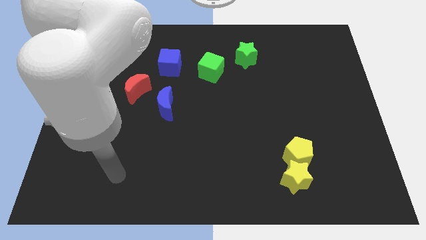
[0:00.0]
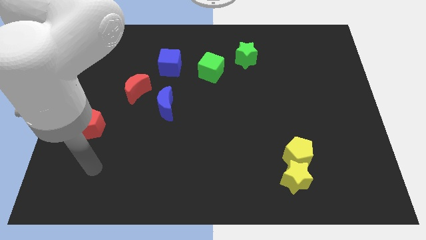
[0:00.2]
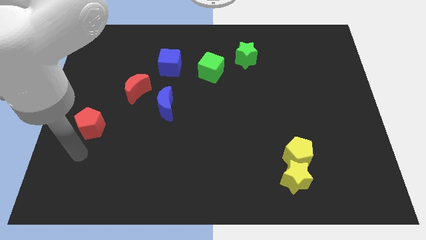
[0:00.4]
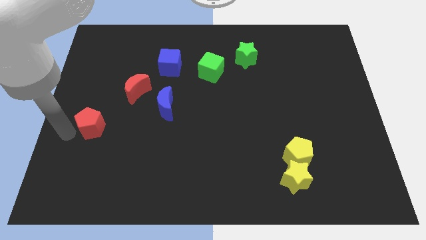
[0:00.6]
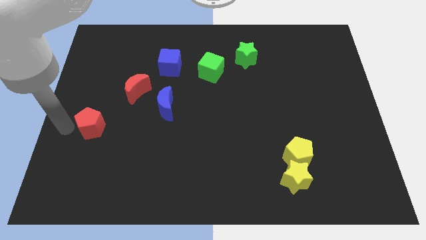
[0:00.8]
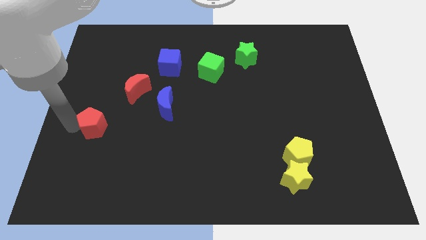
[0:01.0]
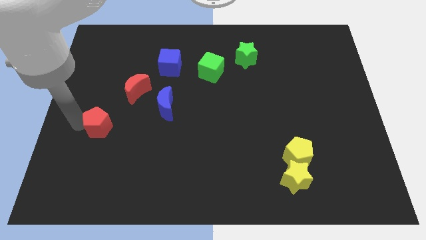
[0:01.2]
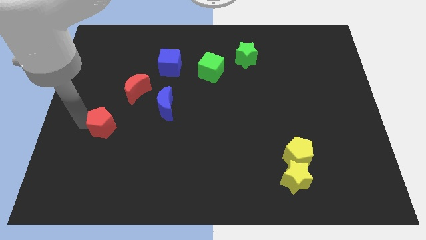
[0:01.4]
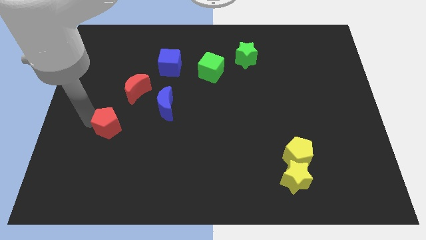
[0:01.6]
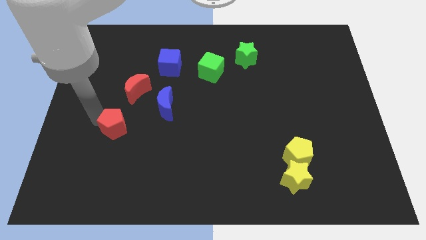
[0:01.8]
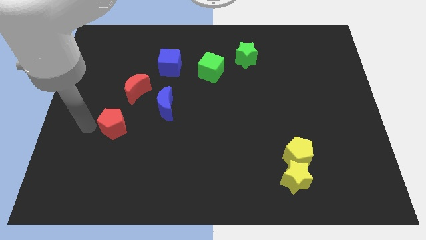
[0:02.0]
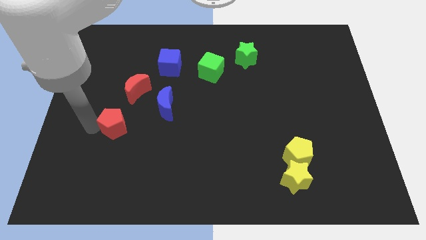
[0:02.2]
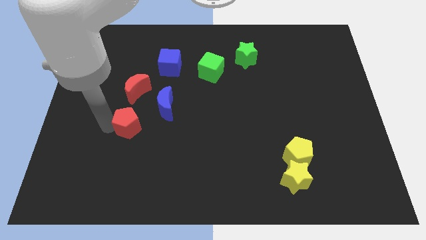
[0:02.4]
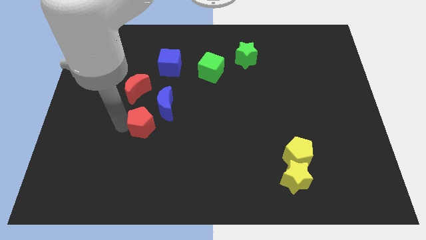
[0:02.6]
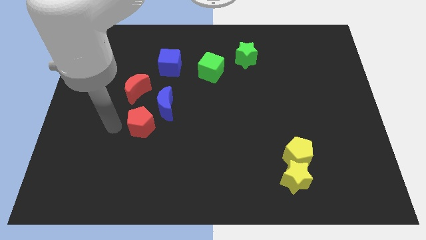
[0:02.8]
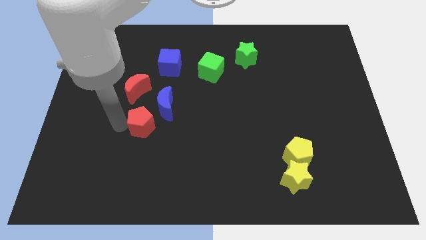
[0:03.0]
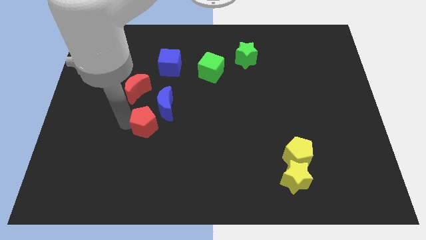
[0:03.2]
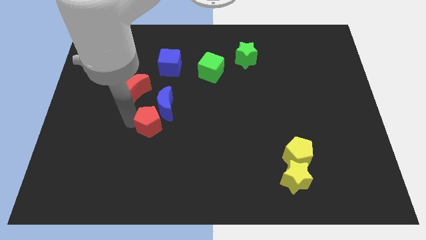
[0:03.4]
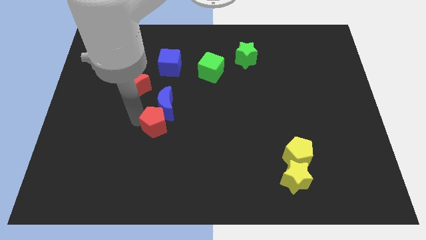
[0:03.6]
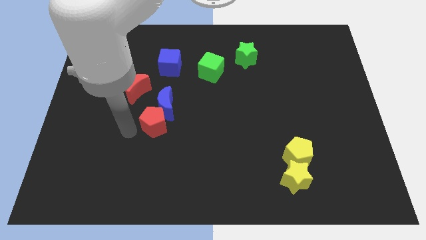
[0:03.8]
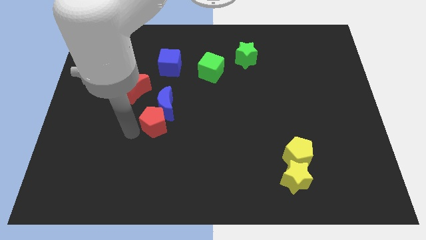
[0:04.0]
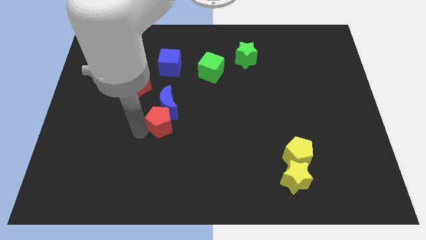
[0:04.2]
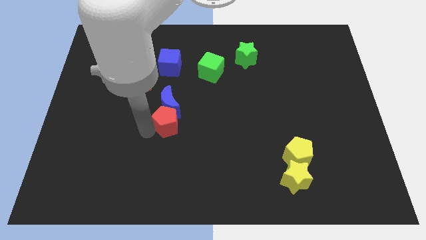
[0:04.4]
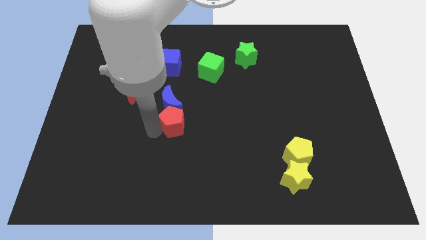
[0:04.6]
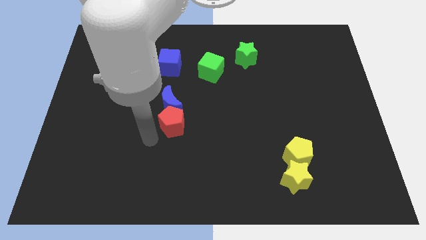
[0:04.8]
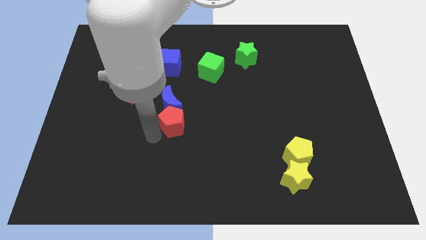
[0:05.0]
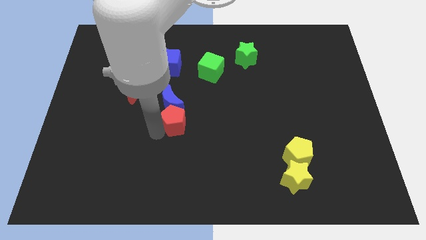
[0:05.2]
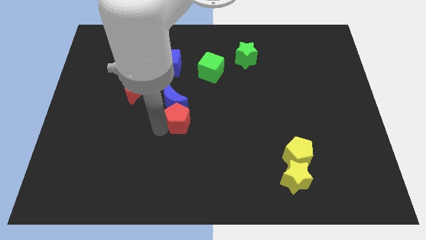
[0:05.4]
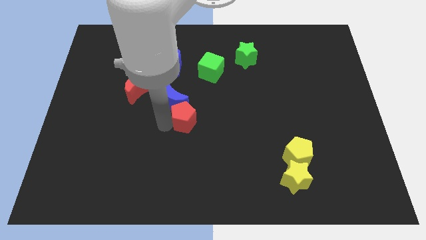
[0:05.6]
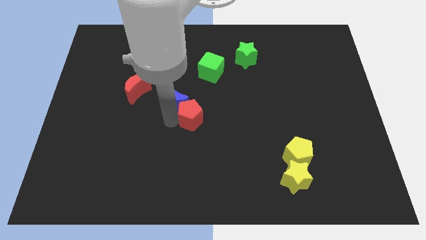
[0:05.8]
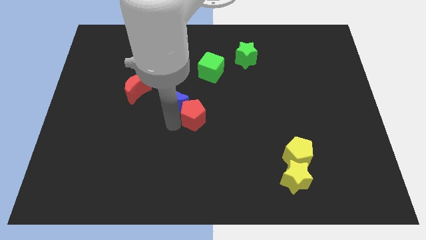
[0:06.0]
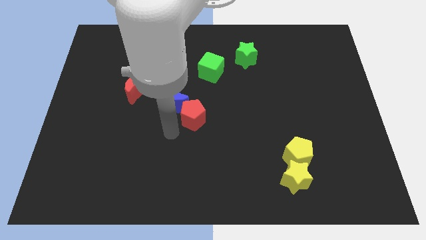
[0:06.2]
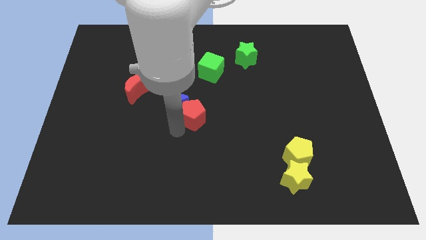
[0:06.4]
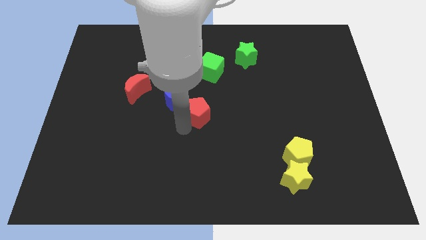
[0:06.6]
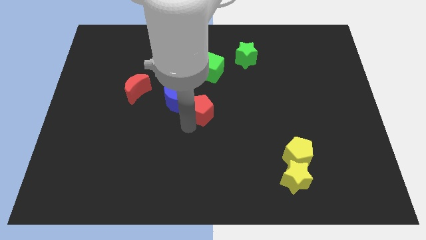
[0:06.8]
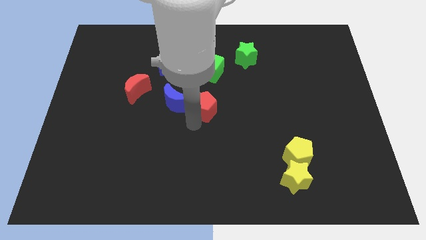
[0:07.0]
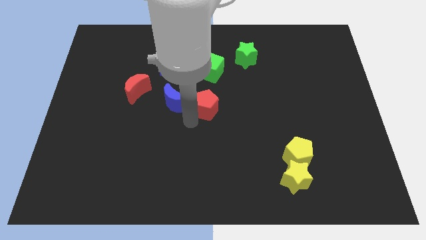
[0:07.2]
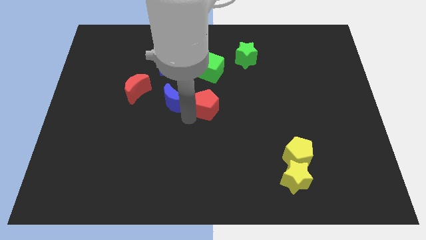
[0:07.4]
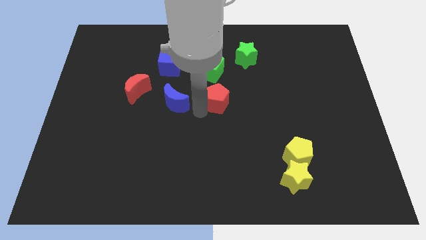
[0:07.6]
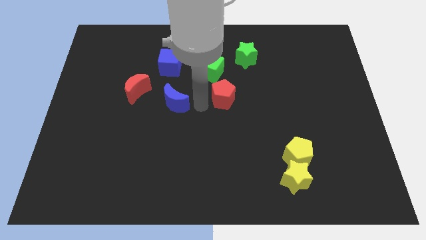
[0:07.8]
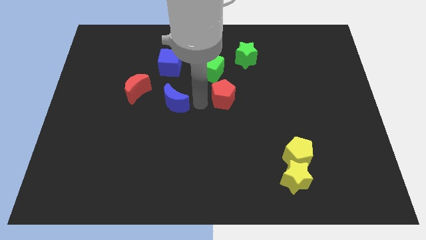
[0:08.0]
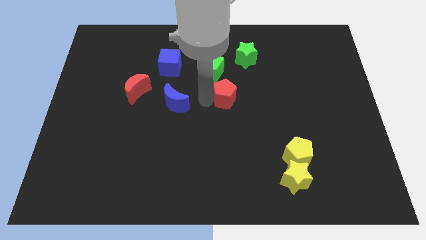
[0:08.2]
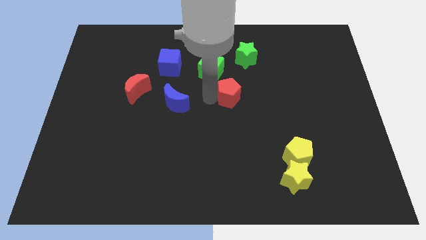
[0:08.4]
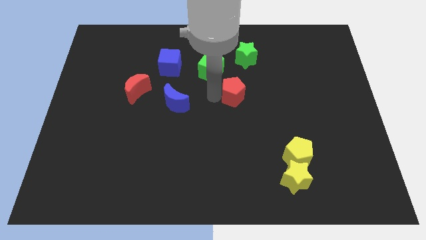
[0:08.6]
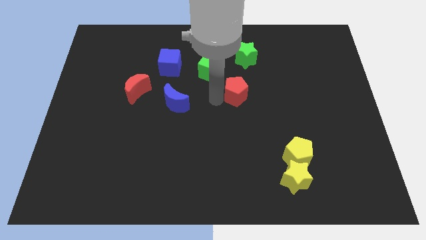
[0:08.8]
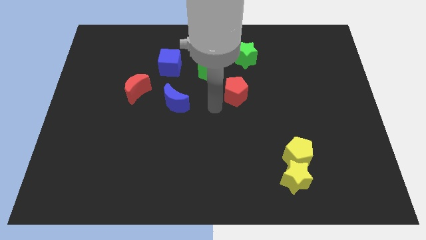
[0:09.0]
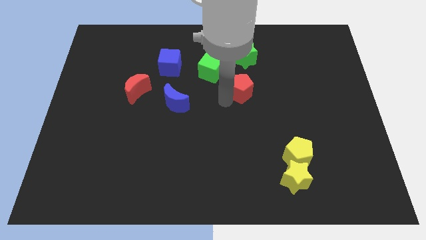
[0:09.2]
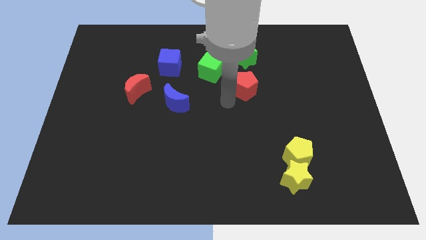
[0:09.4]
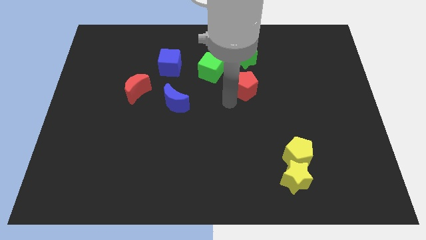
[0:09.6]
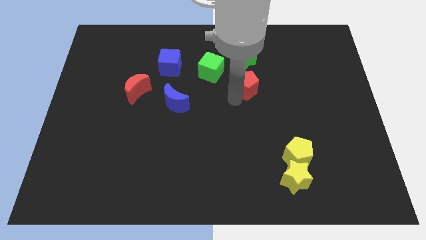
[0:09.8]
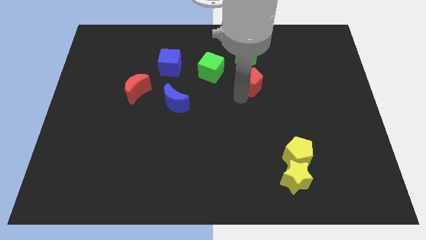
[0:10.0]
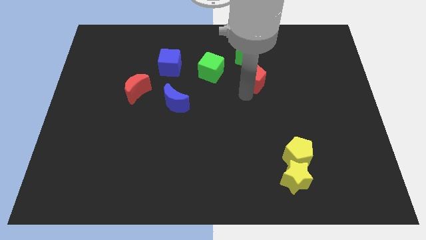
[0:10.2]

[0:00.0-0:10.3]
push the red pentagon diagonally down and to the right of the green star

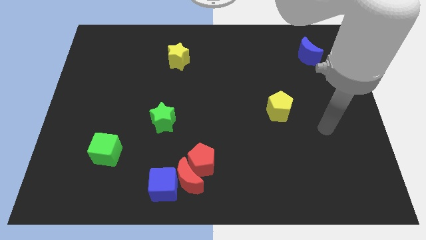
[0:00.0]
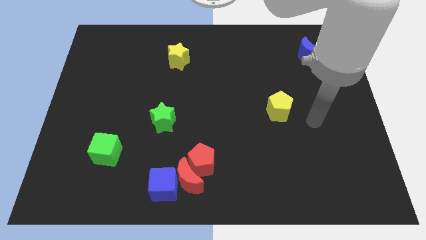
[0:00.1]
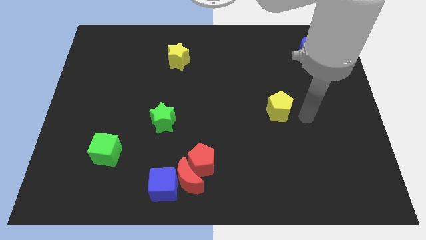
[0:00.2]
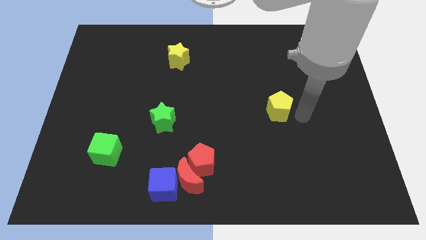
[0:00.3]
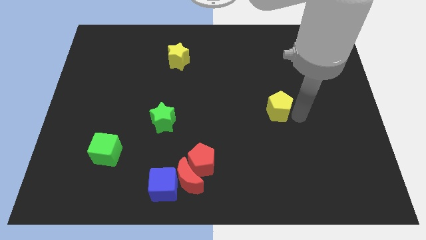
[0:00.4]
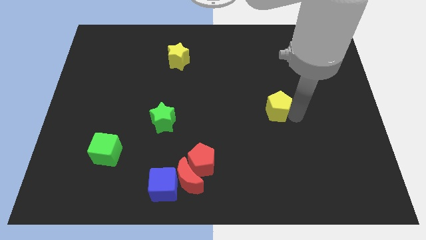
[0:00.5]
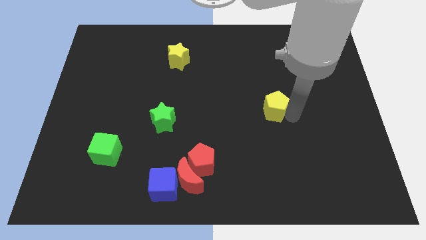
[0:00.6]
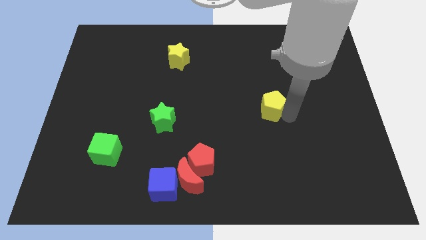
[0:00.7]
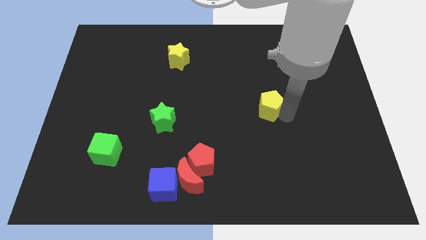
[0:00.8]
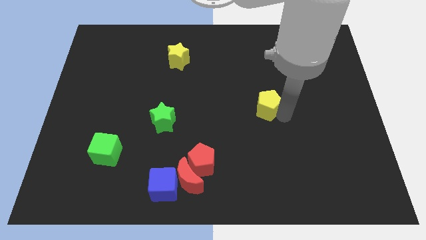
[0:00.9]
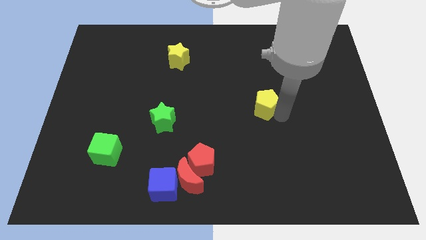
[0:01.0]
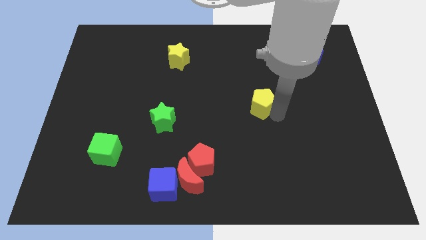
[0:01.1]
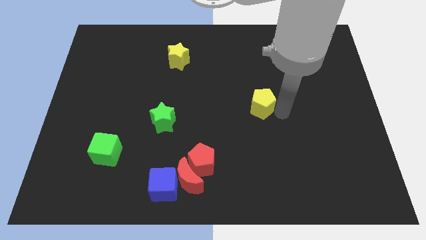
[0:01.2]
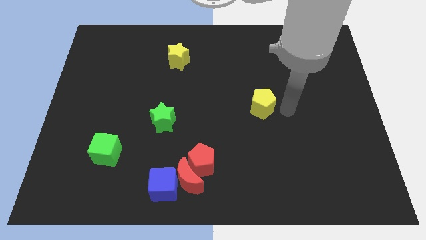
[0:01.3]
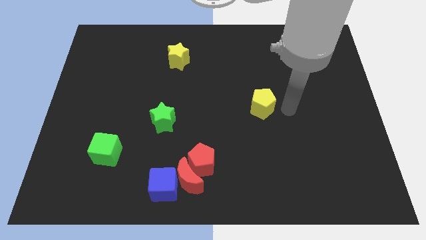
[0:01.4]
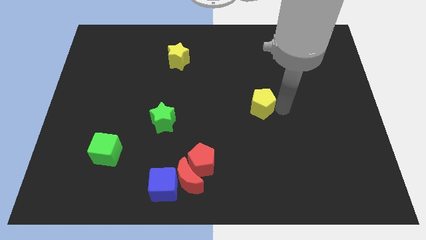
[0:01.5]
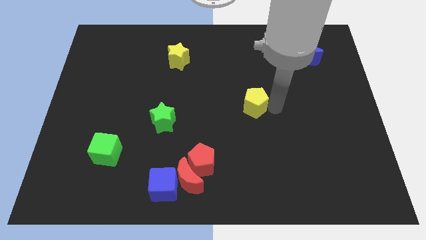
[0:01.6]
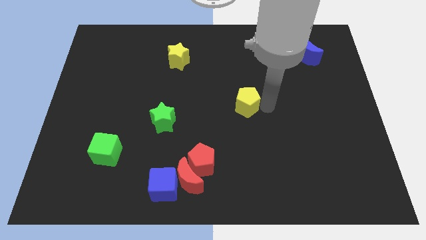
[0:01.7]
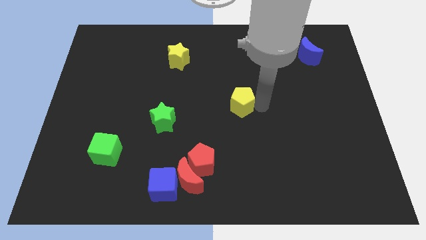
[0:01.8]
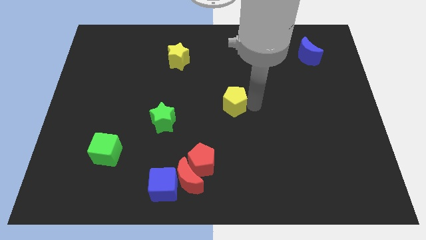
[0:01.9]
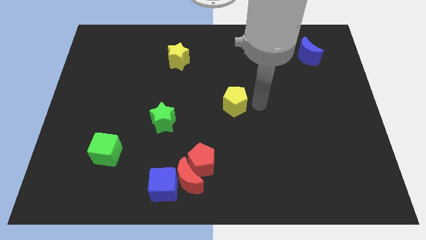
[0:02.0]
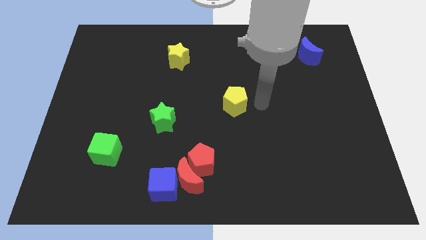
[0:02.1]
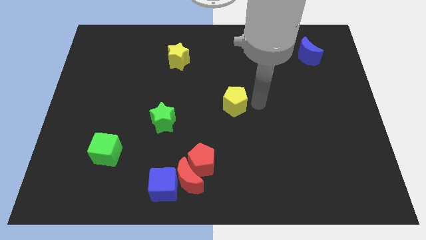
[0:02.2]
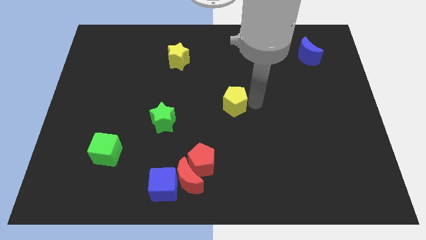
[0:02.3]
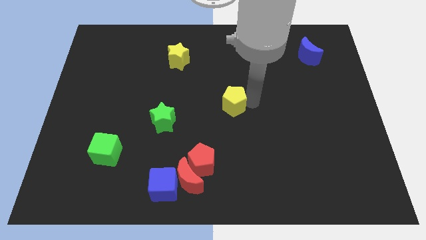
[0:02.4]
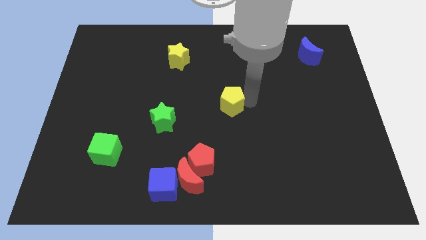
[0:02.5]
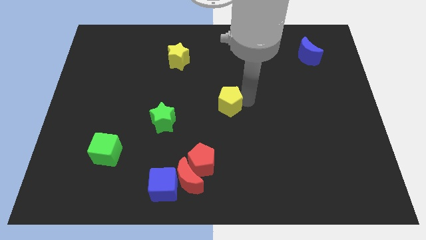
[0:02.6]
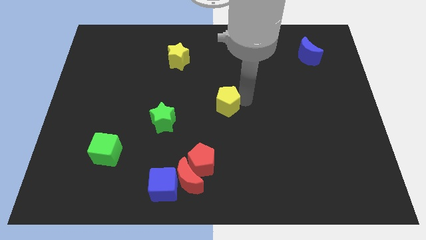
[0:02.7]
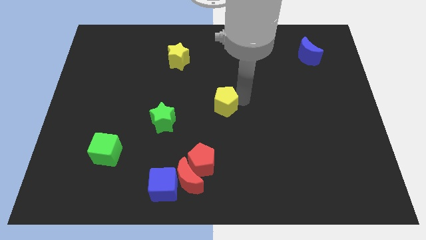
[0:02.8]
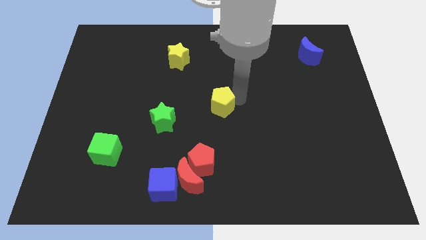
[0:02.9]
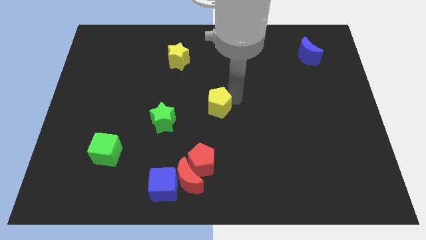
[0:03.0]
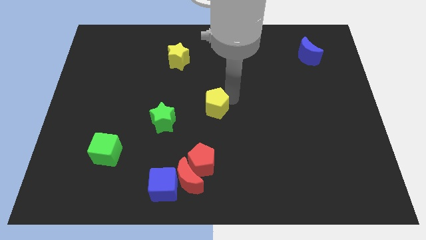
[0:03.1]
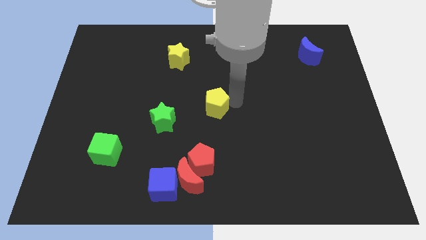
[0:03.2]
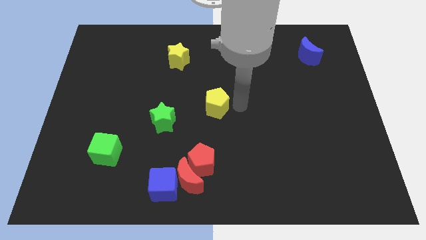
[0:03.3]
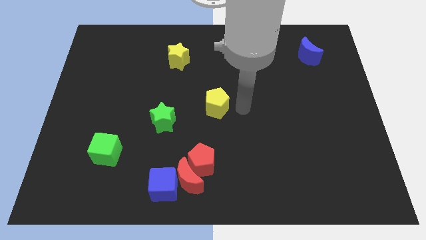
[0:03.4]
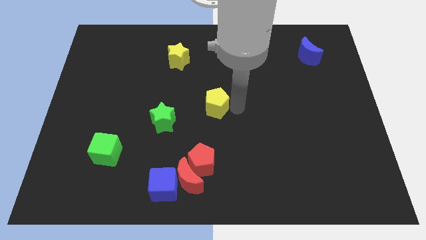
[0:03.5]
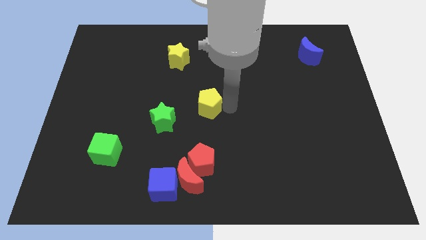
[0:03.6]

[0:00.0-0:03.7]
push the yellow pentagon diagonally up and to the right of the green star
